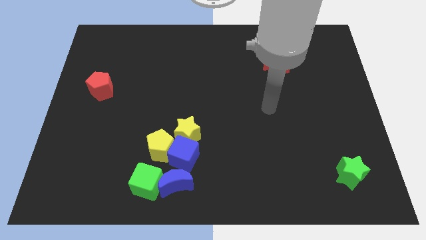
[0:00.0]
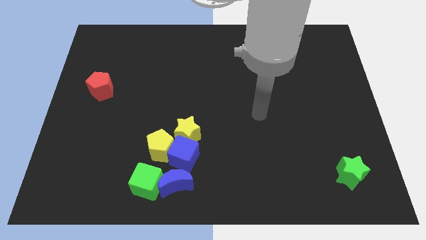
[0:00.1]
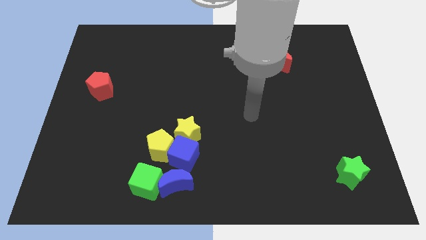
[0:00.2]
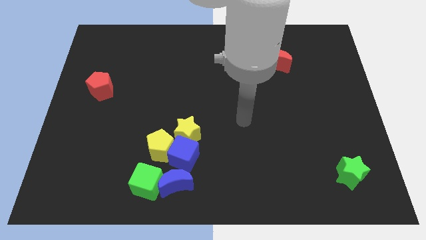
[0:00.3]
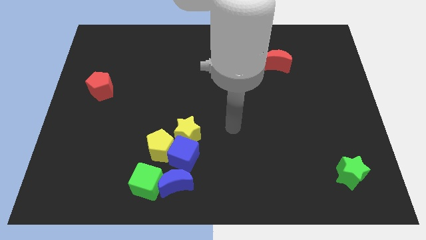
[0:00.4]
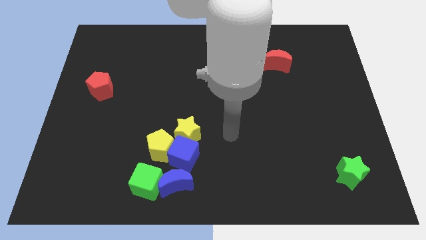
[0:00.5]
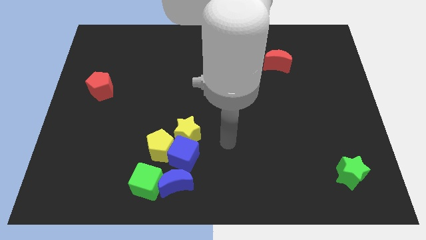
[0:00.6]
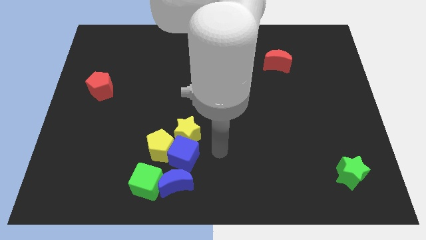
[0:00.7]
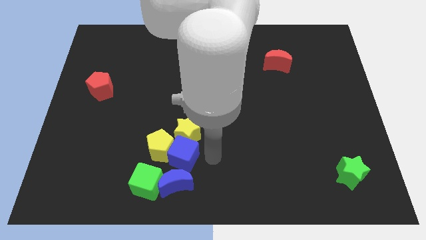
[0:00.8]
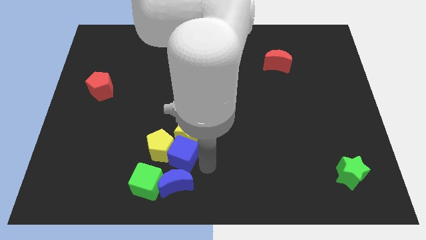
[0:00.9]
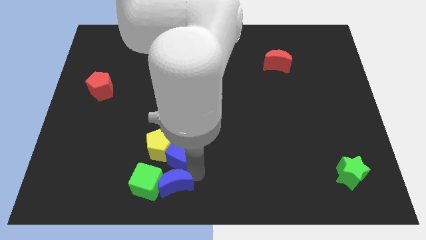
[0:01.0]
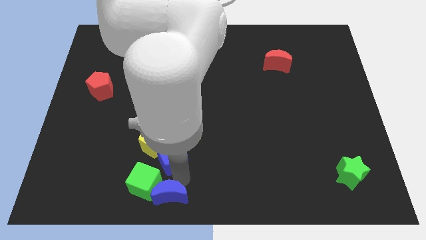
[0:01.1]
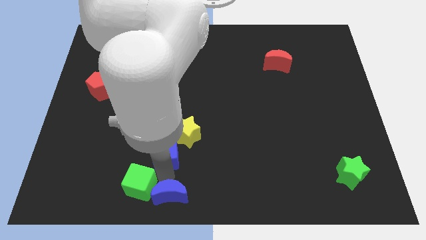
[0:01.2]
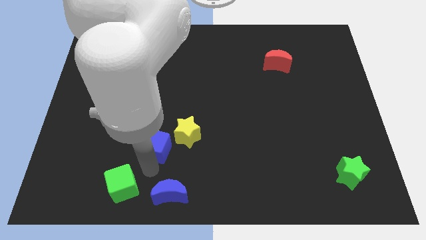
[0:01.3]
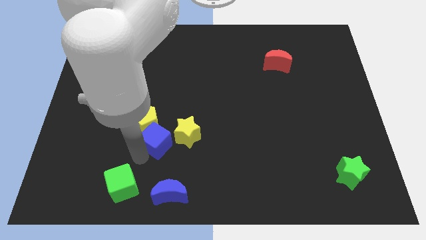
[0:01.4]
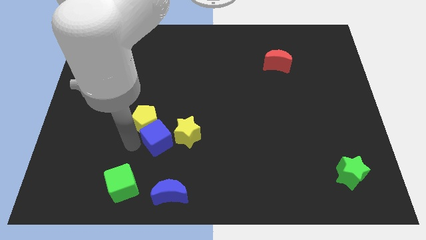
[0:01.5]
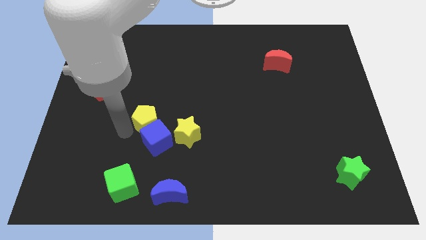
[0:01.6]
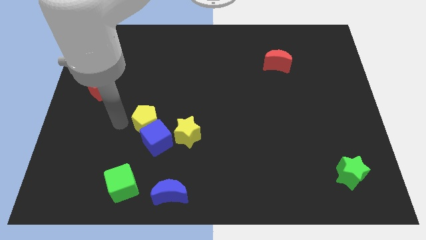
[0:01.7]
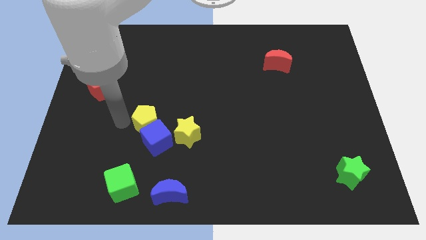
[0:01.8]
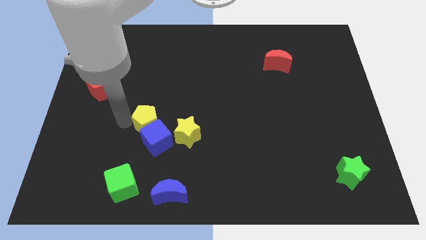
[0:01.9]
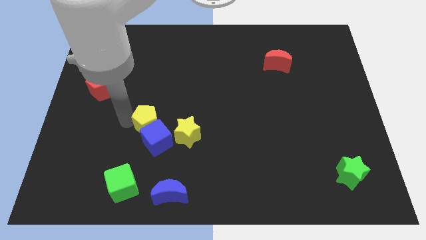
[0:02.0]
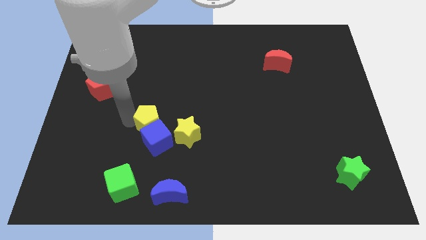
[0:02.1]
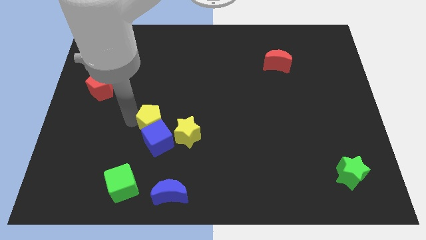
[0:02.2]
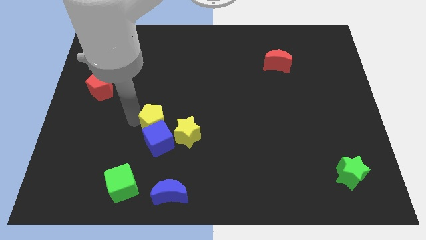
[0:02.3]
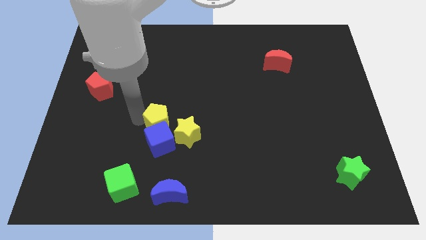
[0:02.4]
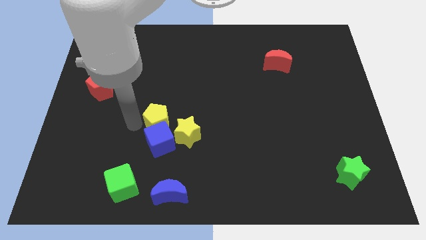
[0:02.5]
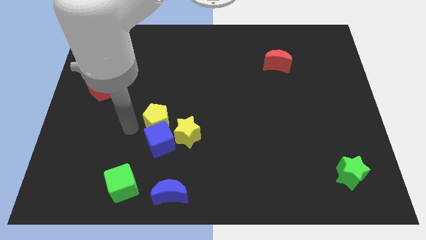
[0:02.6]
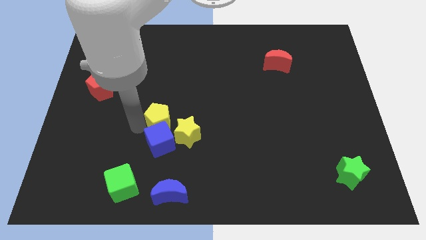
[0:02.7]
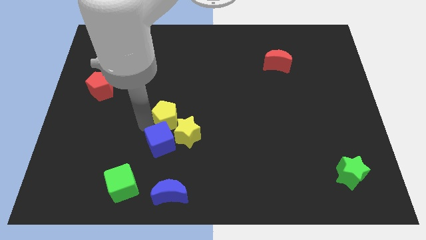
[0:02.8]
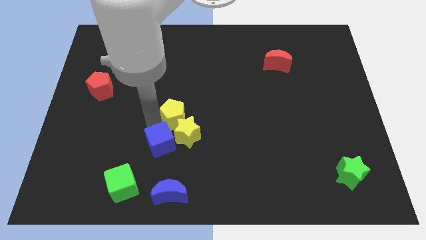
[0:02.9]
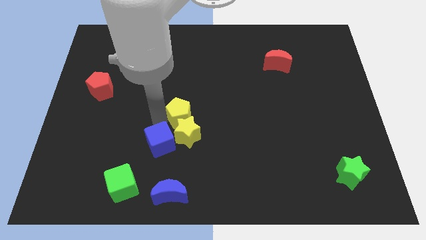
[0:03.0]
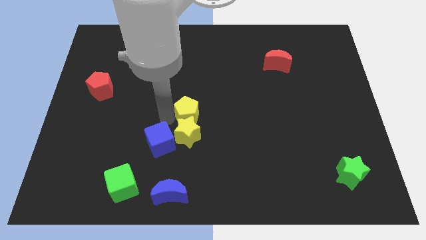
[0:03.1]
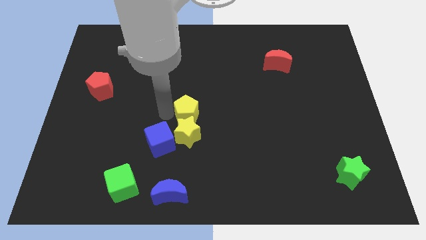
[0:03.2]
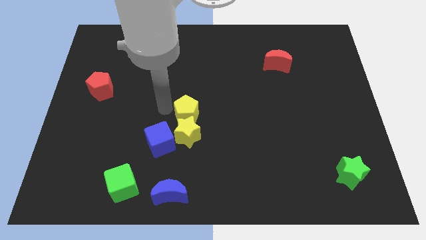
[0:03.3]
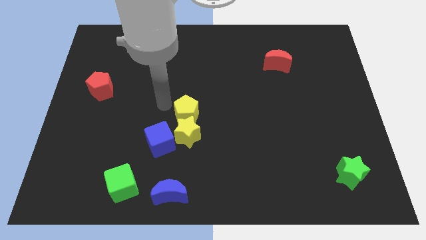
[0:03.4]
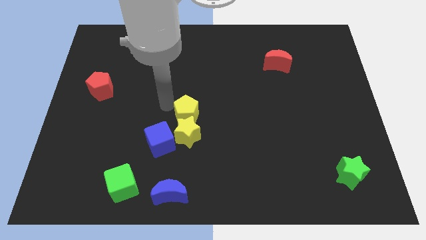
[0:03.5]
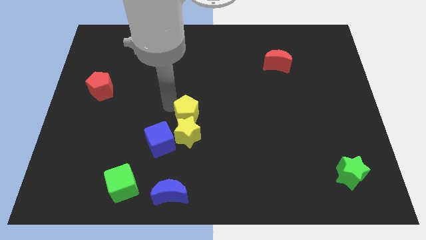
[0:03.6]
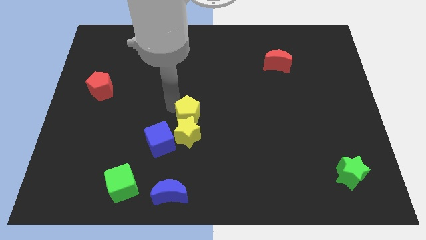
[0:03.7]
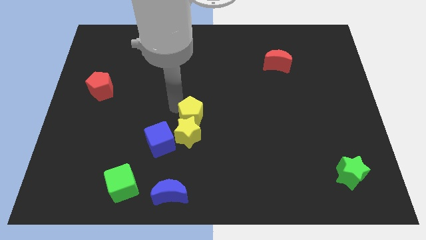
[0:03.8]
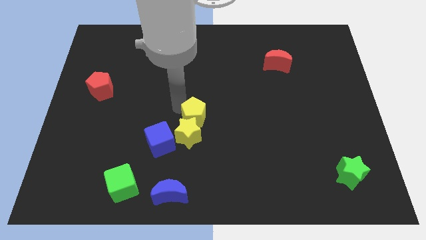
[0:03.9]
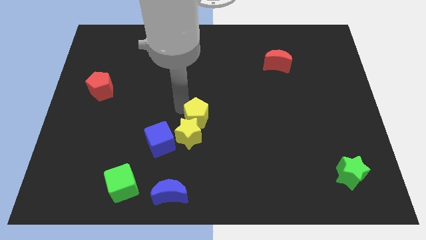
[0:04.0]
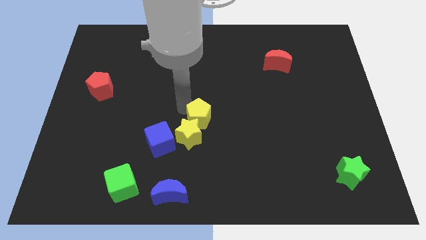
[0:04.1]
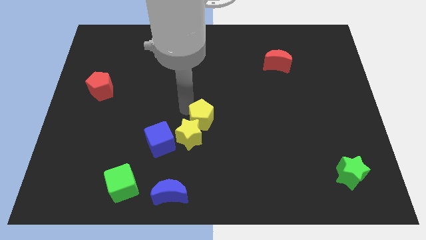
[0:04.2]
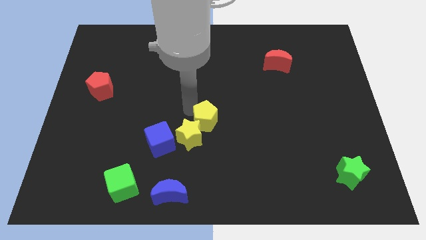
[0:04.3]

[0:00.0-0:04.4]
move the yellow pentagon to the right side of the yellow star

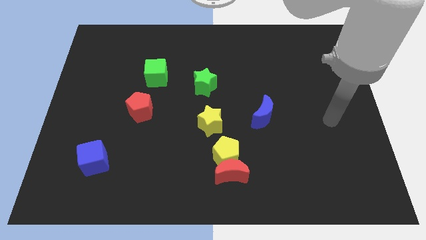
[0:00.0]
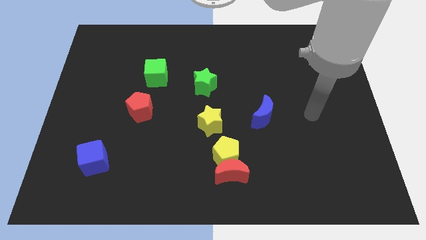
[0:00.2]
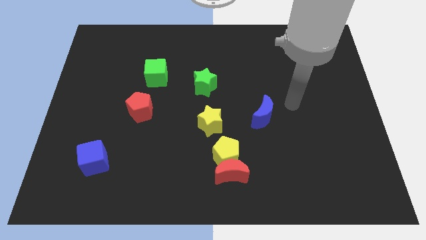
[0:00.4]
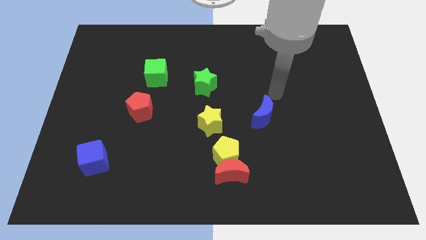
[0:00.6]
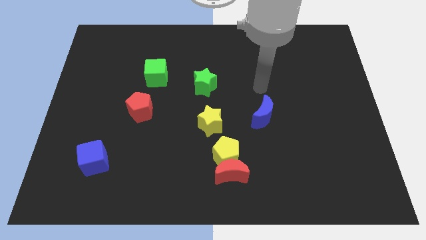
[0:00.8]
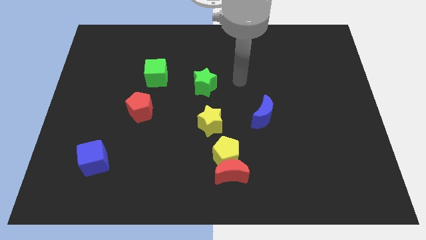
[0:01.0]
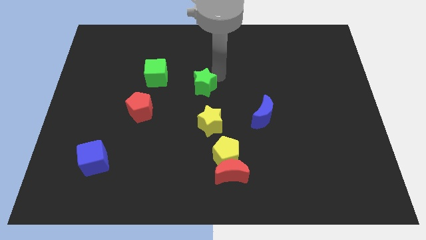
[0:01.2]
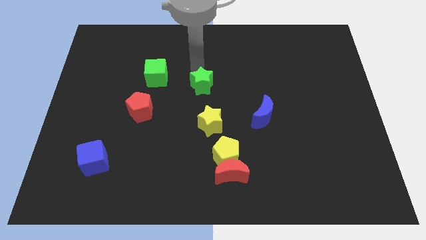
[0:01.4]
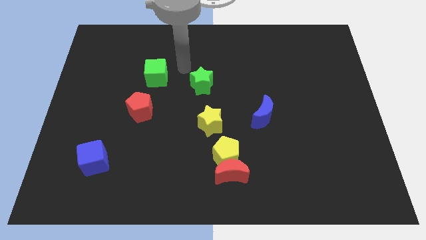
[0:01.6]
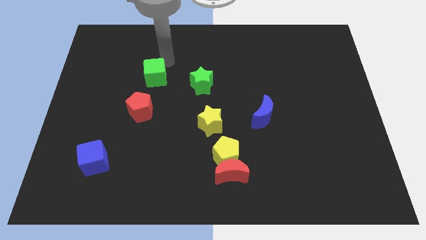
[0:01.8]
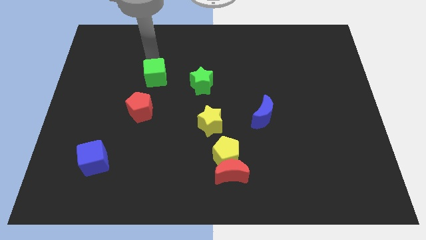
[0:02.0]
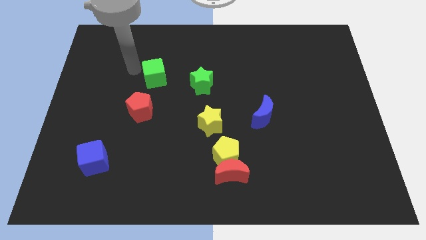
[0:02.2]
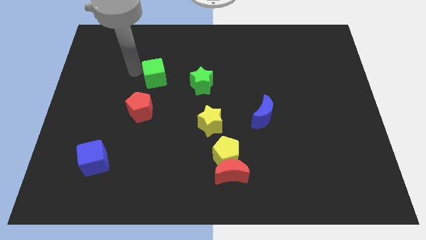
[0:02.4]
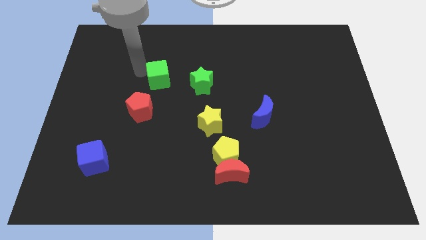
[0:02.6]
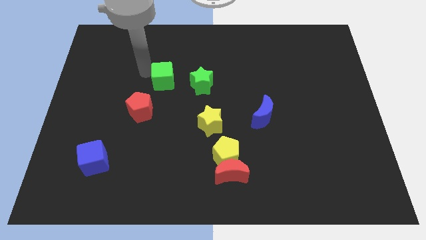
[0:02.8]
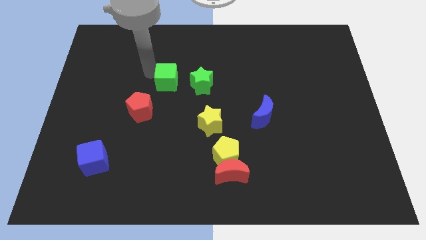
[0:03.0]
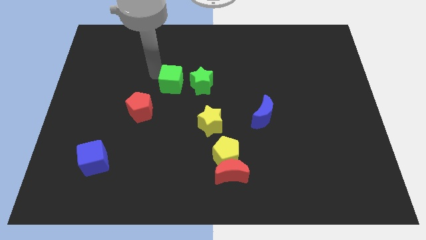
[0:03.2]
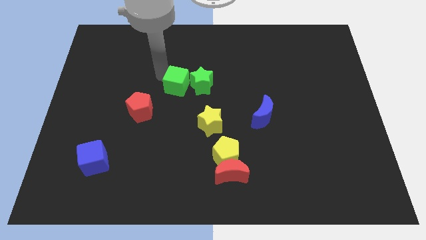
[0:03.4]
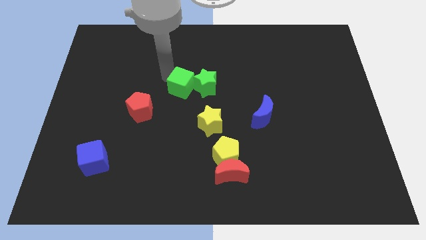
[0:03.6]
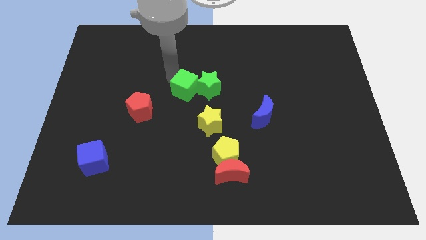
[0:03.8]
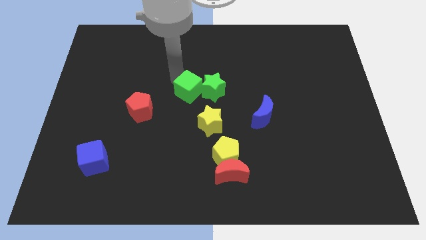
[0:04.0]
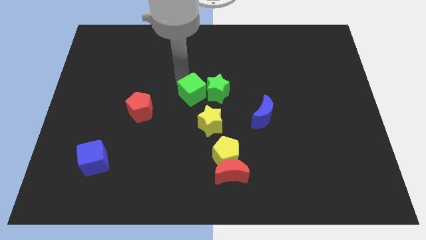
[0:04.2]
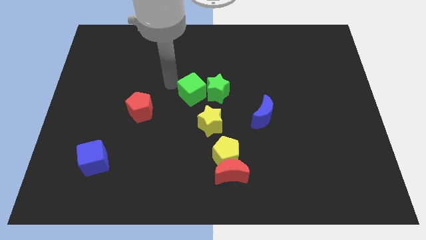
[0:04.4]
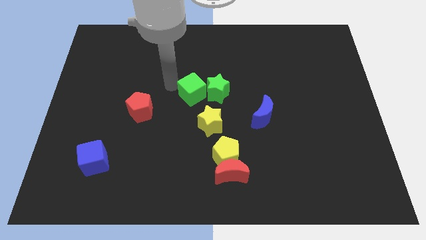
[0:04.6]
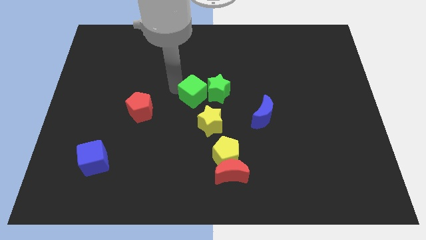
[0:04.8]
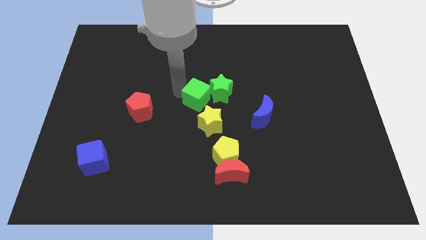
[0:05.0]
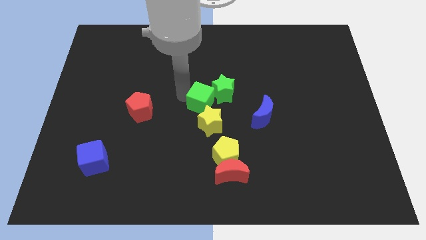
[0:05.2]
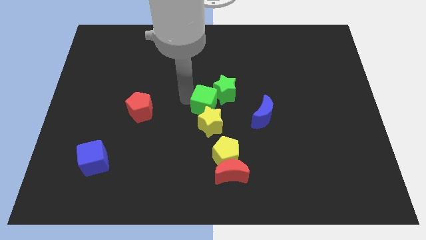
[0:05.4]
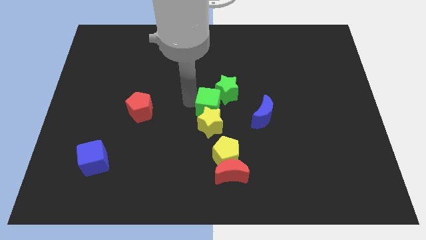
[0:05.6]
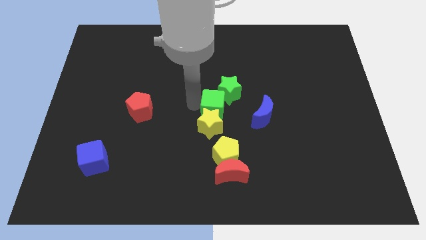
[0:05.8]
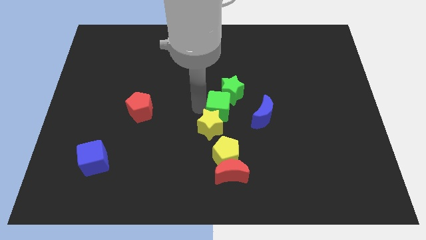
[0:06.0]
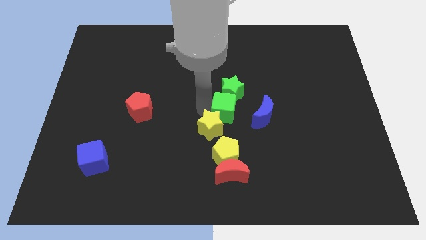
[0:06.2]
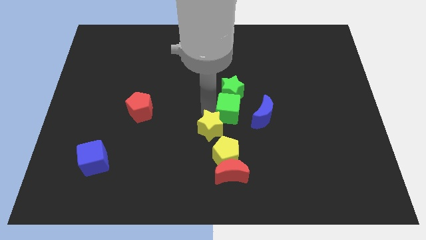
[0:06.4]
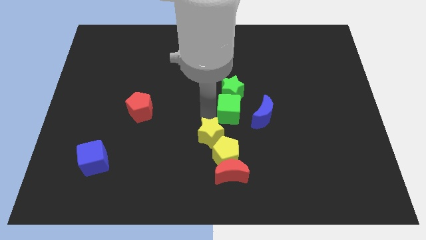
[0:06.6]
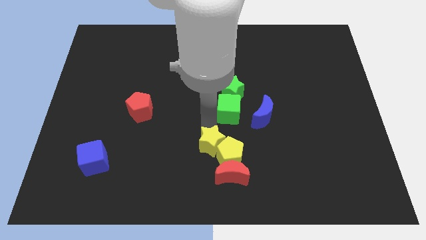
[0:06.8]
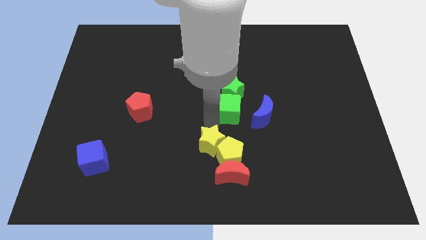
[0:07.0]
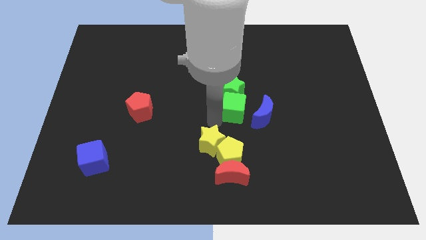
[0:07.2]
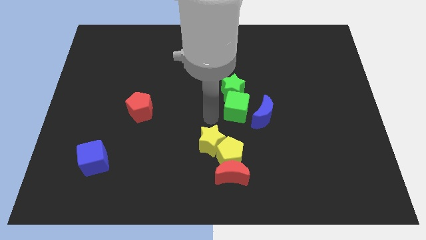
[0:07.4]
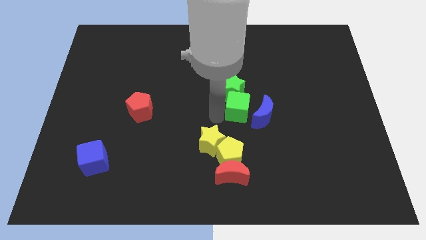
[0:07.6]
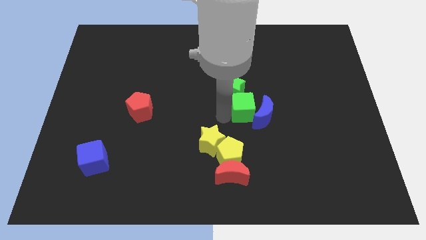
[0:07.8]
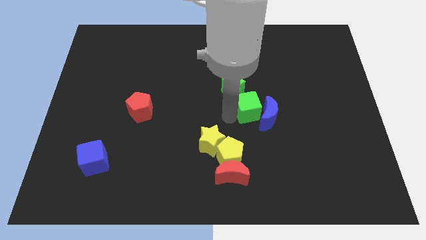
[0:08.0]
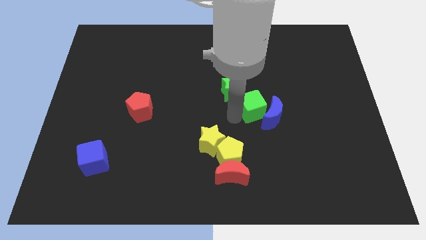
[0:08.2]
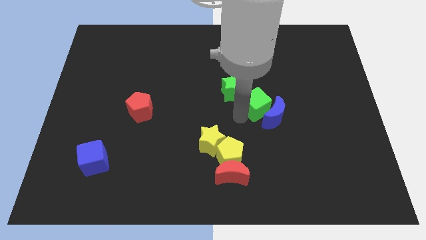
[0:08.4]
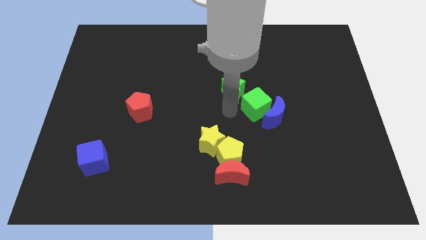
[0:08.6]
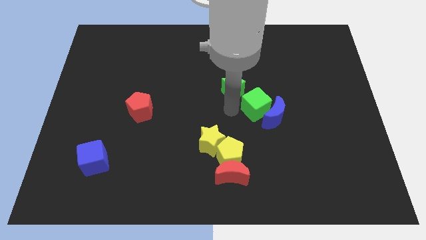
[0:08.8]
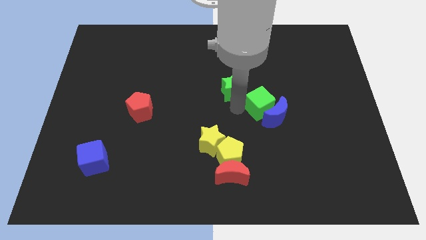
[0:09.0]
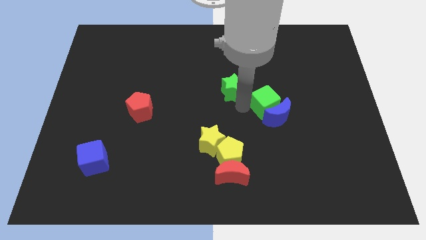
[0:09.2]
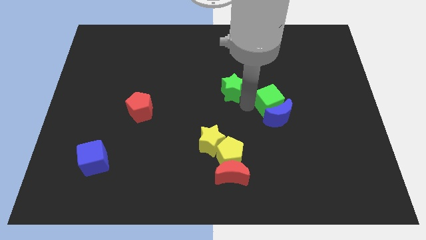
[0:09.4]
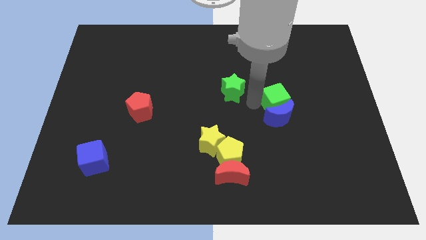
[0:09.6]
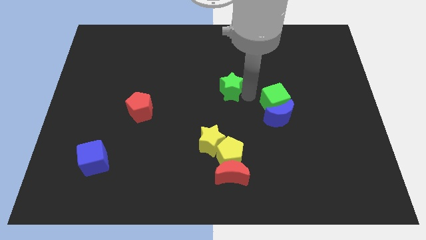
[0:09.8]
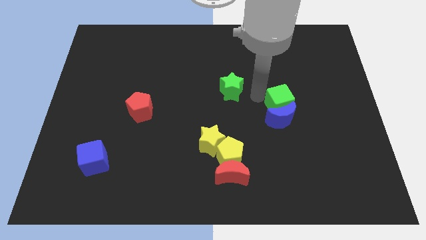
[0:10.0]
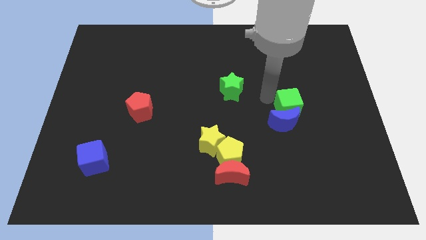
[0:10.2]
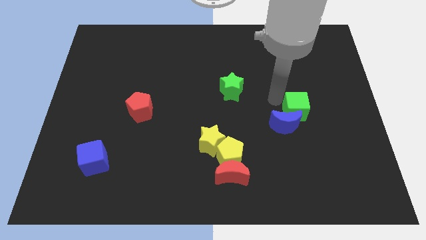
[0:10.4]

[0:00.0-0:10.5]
push the green cube to the right side of the blue moon
